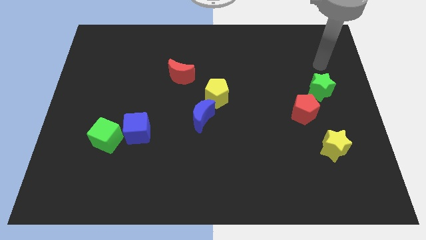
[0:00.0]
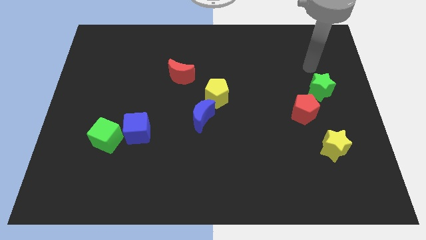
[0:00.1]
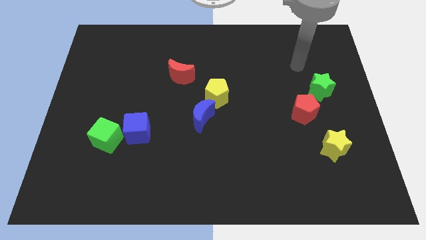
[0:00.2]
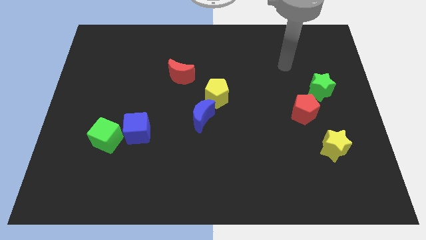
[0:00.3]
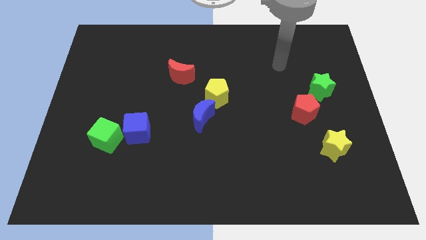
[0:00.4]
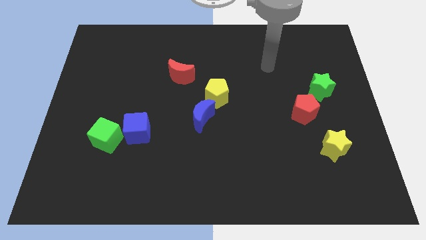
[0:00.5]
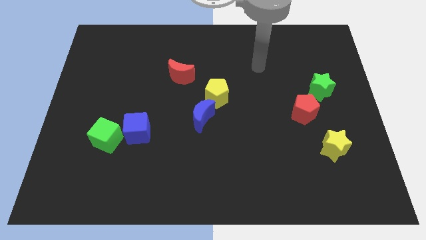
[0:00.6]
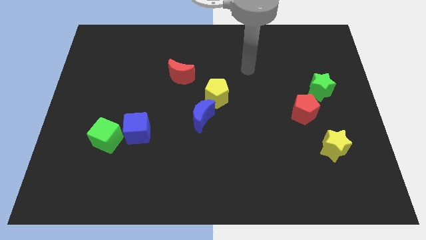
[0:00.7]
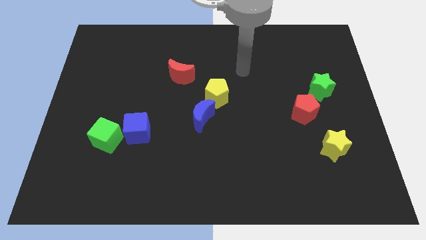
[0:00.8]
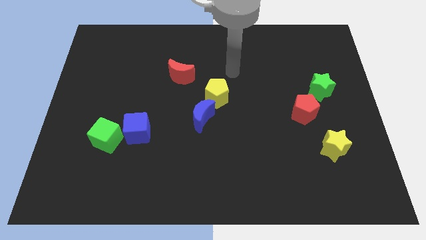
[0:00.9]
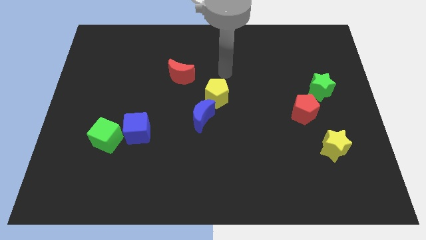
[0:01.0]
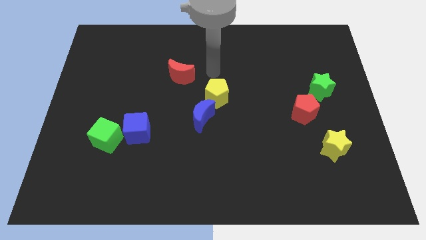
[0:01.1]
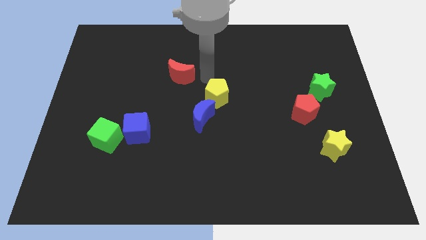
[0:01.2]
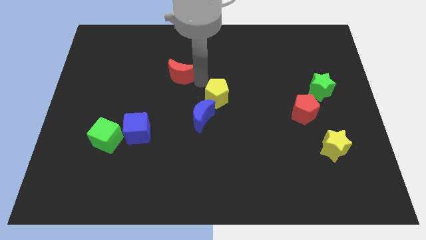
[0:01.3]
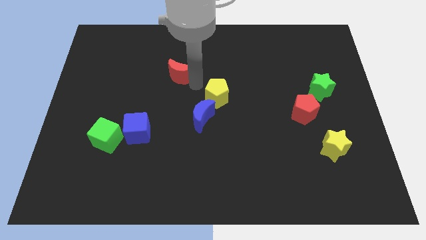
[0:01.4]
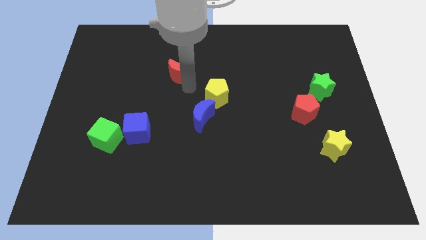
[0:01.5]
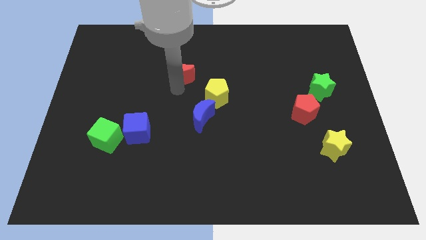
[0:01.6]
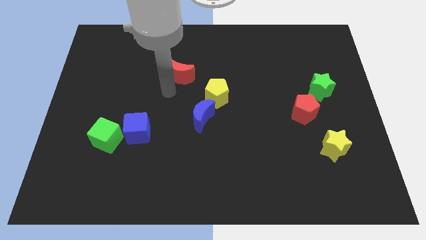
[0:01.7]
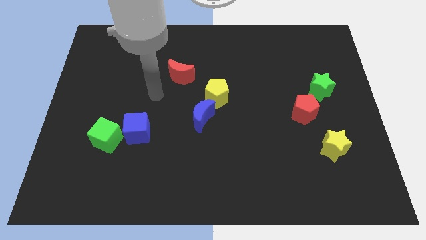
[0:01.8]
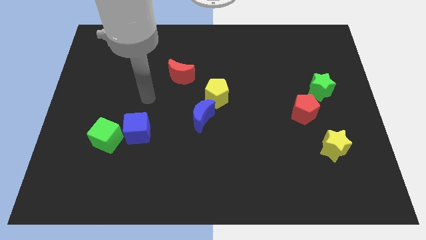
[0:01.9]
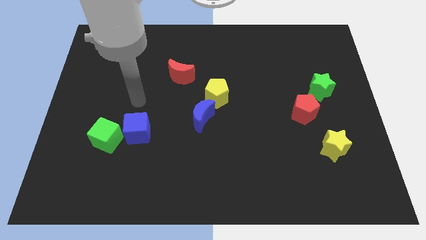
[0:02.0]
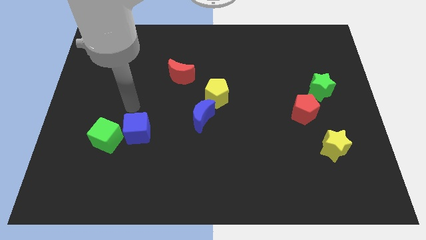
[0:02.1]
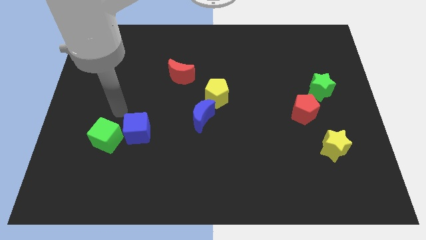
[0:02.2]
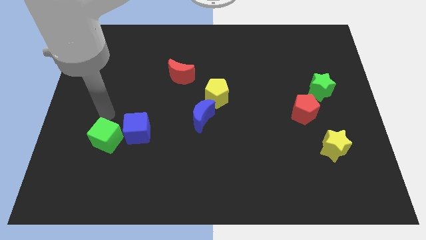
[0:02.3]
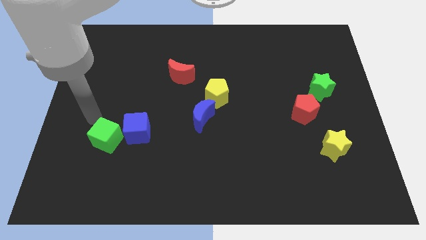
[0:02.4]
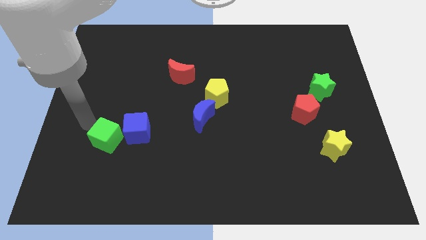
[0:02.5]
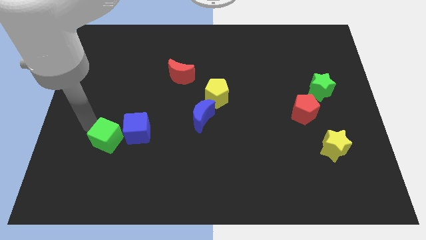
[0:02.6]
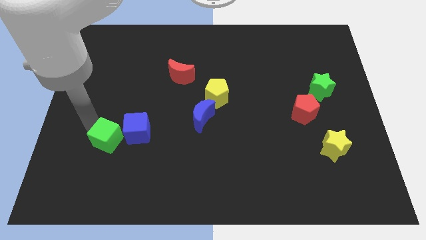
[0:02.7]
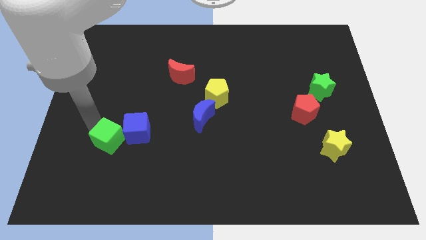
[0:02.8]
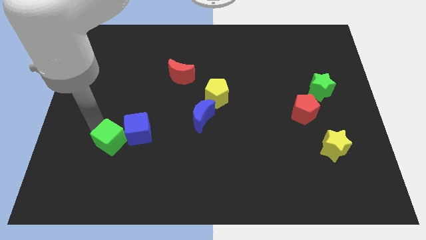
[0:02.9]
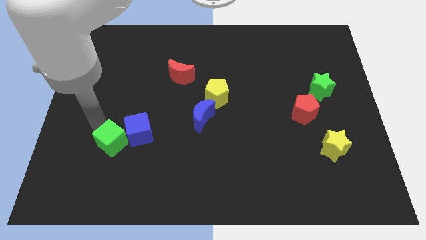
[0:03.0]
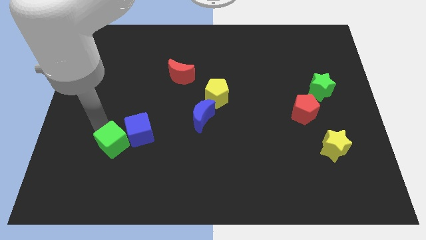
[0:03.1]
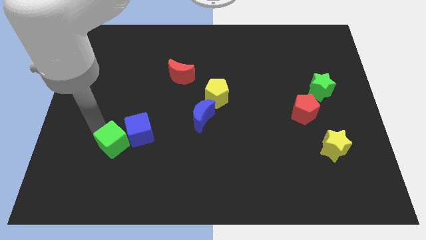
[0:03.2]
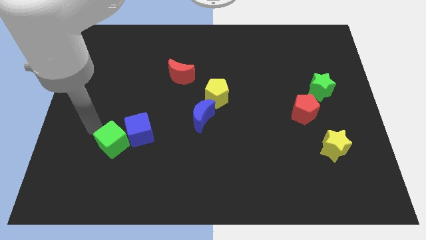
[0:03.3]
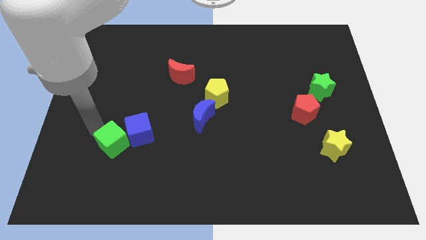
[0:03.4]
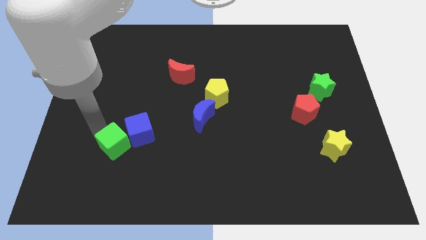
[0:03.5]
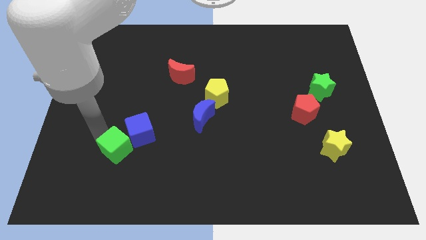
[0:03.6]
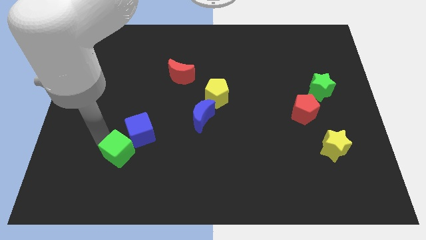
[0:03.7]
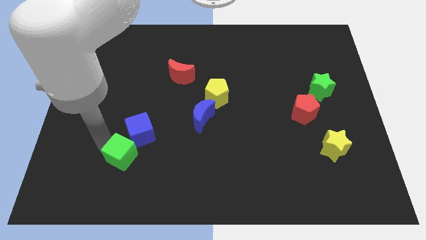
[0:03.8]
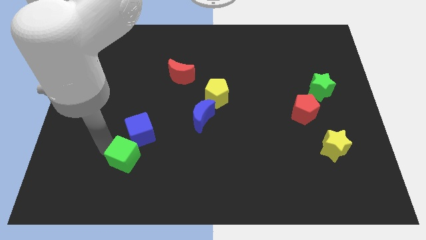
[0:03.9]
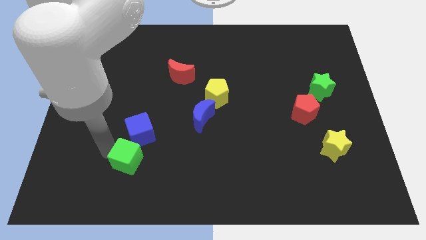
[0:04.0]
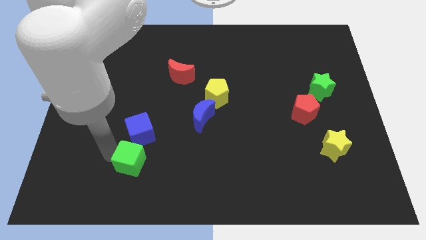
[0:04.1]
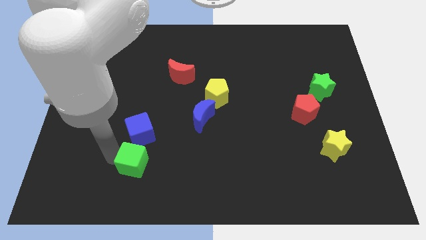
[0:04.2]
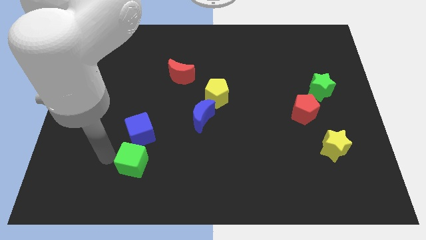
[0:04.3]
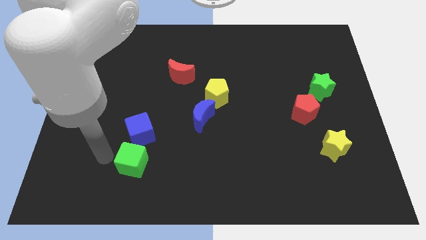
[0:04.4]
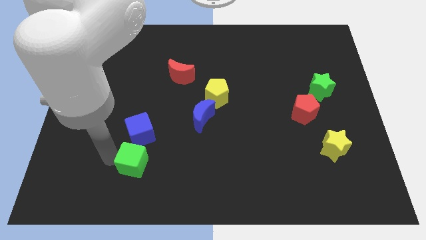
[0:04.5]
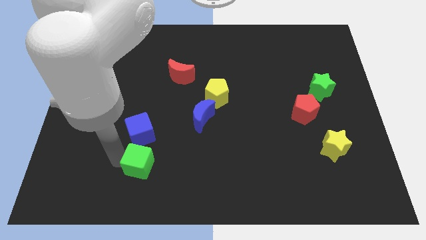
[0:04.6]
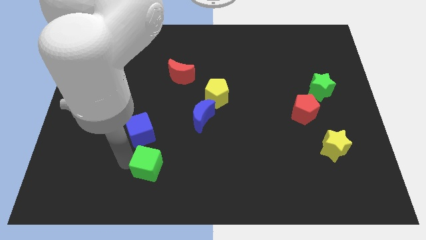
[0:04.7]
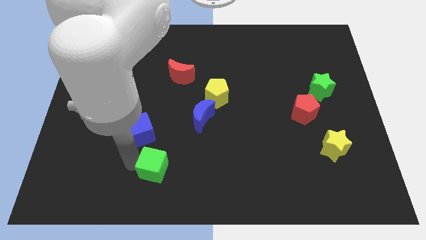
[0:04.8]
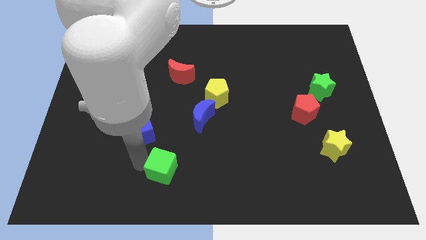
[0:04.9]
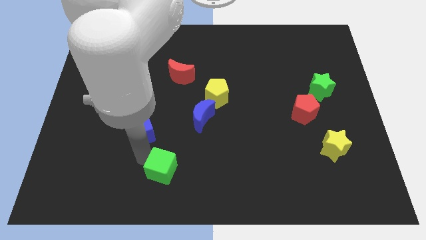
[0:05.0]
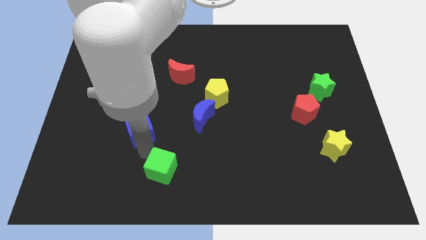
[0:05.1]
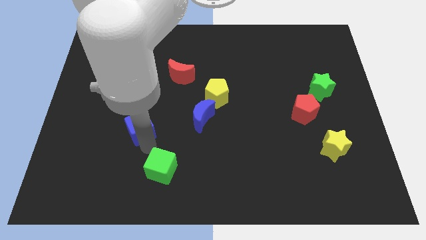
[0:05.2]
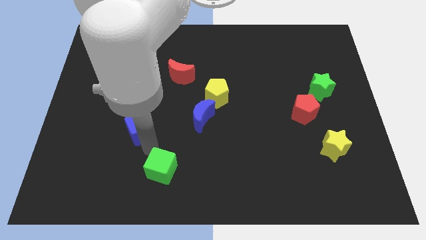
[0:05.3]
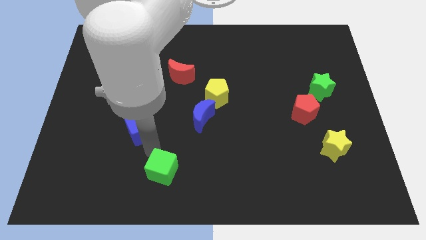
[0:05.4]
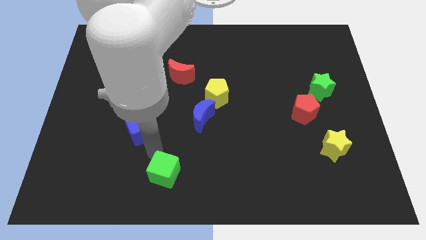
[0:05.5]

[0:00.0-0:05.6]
put the green cube to the bottom

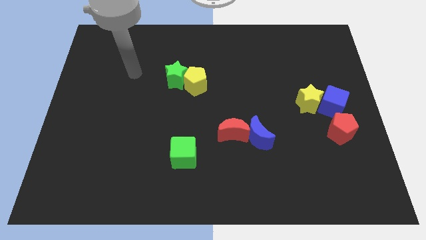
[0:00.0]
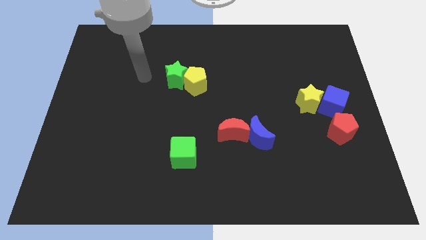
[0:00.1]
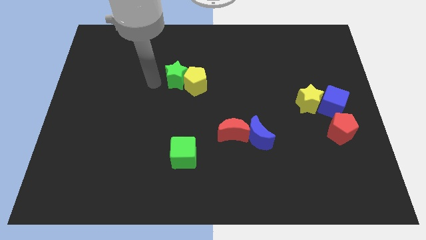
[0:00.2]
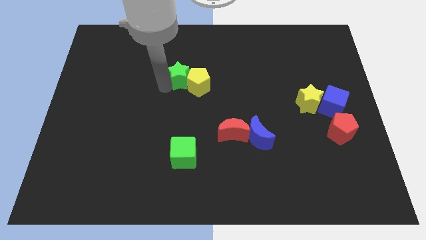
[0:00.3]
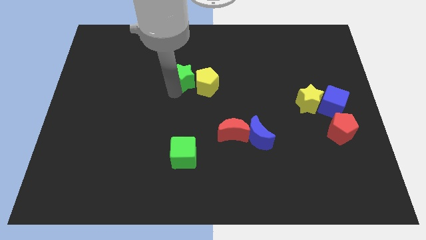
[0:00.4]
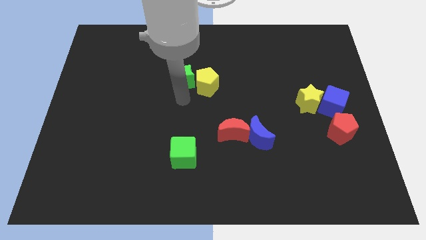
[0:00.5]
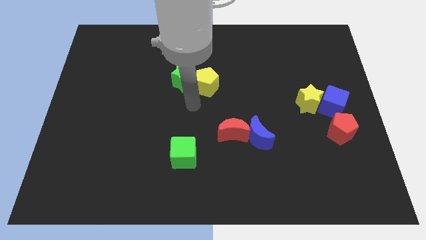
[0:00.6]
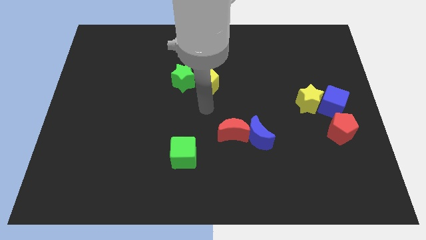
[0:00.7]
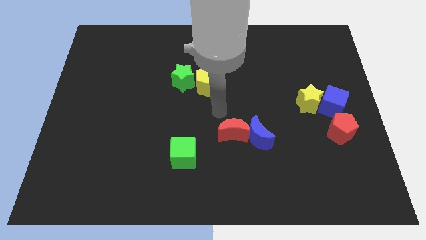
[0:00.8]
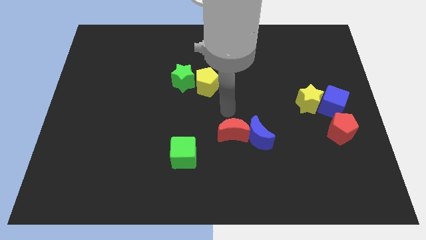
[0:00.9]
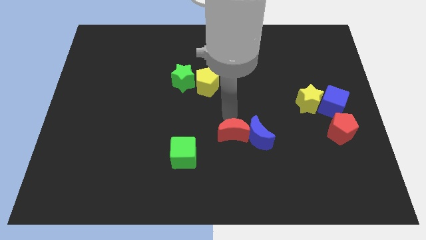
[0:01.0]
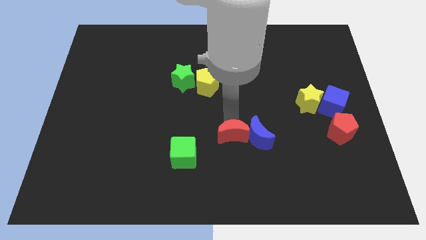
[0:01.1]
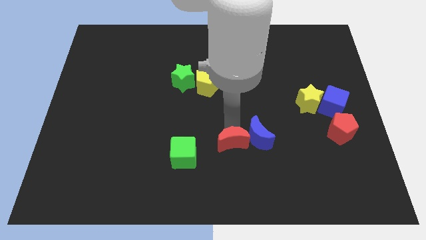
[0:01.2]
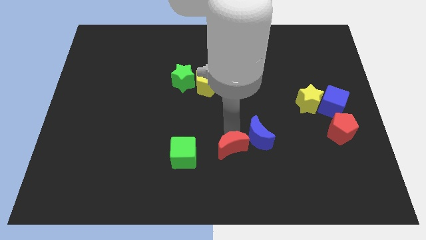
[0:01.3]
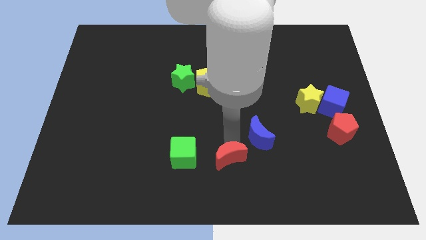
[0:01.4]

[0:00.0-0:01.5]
put the red moon to the bottom side

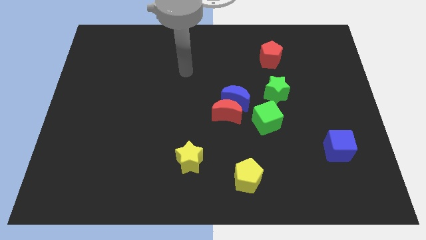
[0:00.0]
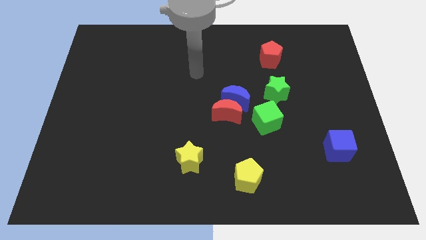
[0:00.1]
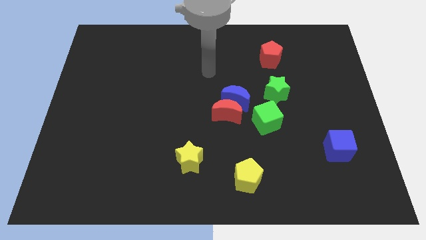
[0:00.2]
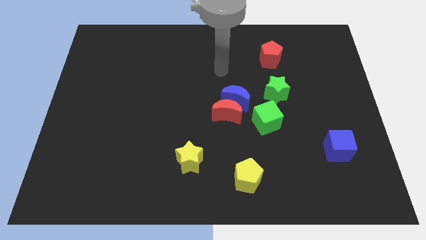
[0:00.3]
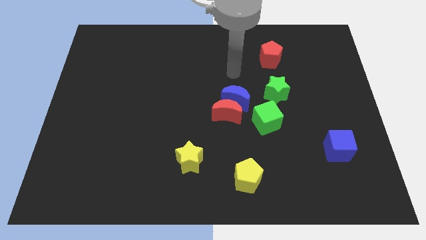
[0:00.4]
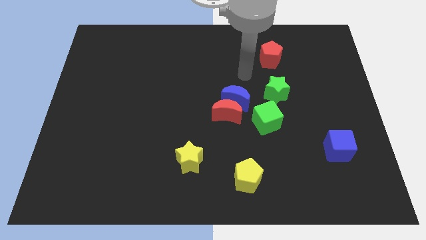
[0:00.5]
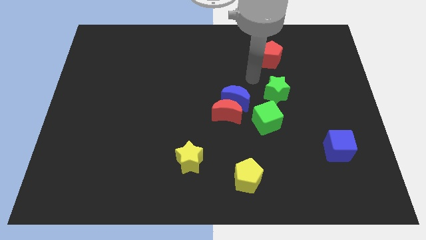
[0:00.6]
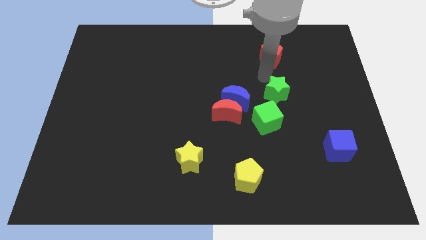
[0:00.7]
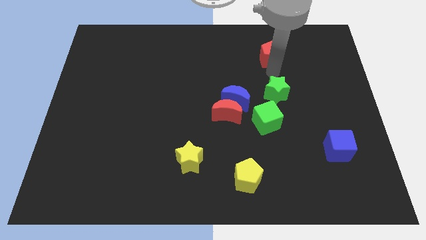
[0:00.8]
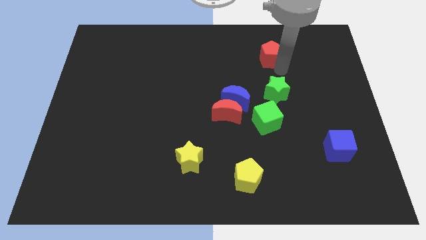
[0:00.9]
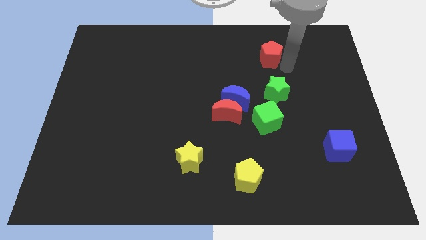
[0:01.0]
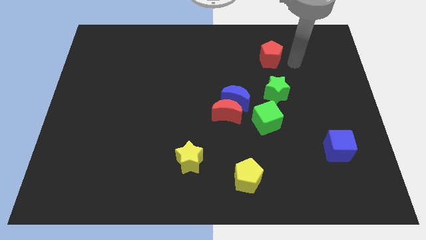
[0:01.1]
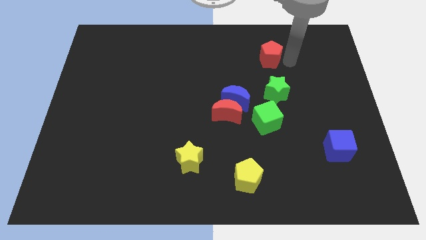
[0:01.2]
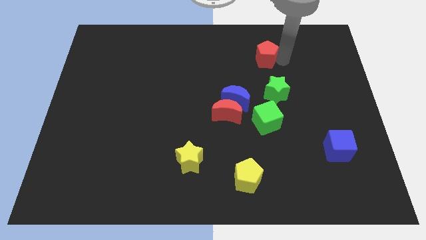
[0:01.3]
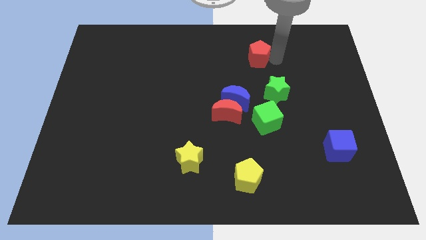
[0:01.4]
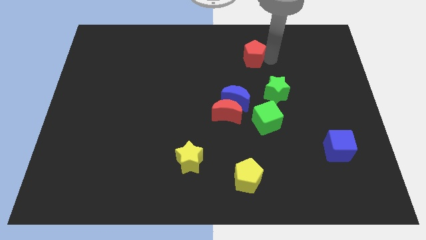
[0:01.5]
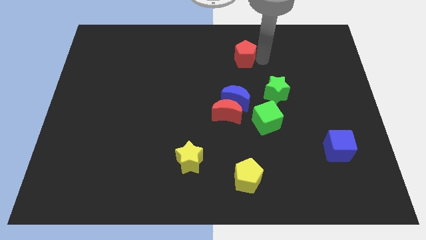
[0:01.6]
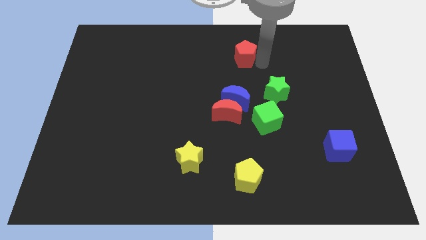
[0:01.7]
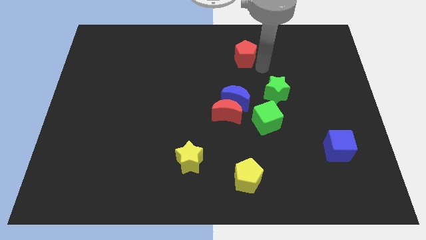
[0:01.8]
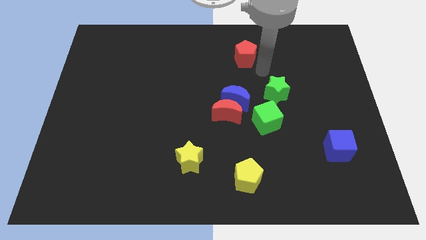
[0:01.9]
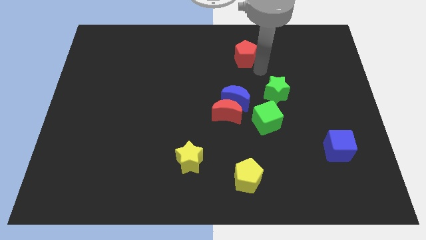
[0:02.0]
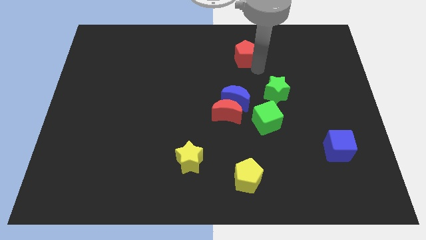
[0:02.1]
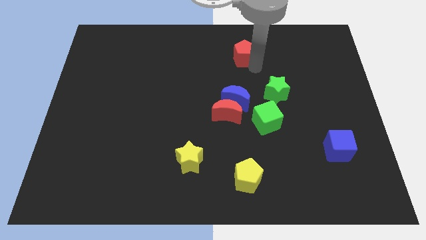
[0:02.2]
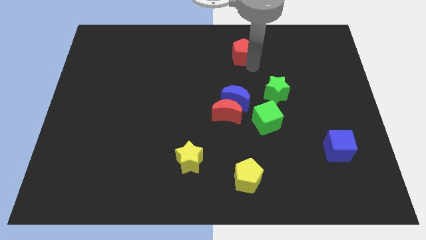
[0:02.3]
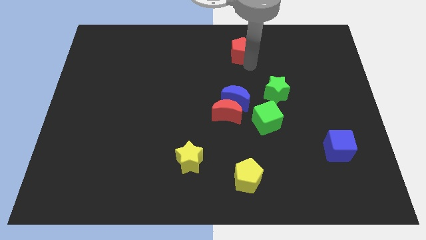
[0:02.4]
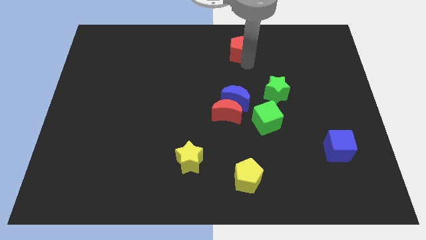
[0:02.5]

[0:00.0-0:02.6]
slide the red pentagon to the top
